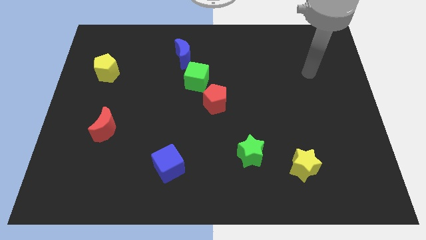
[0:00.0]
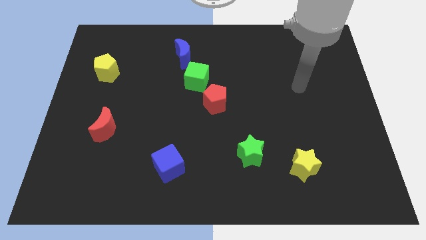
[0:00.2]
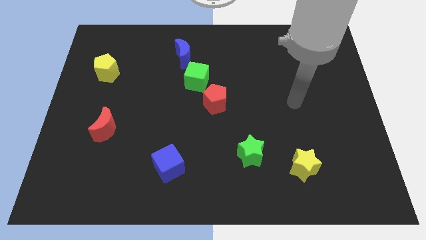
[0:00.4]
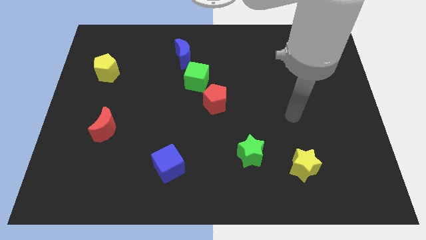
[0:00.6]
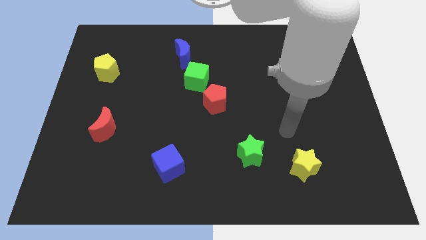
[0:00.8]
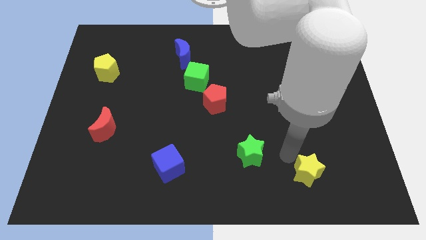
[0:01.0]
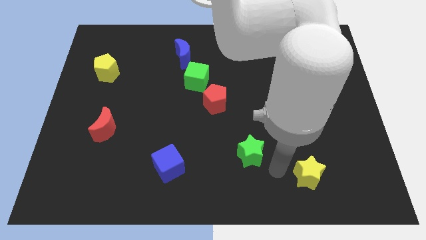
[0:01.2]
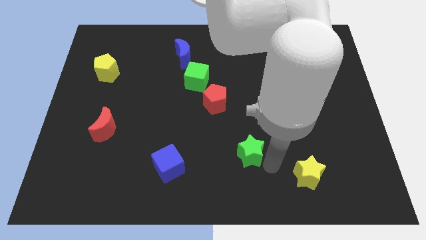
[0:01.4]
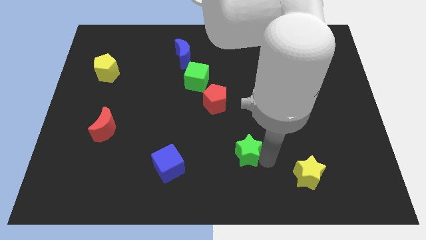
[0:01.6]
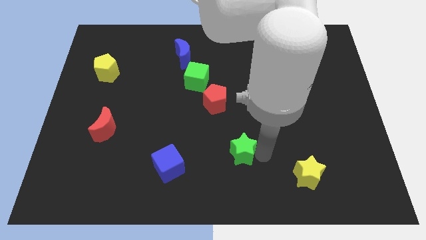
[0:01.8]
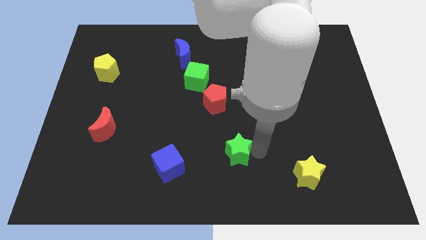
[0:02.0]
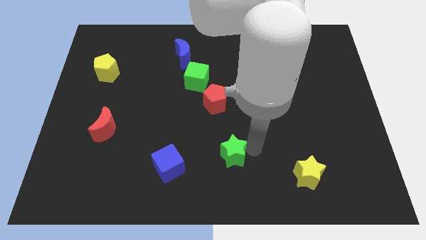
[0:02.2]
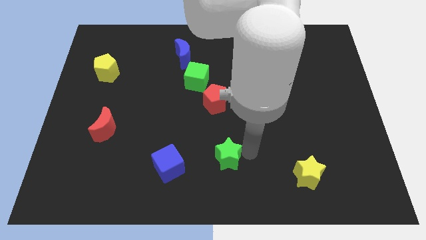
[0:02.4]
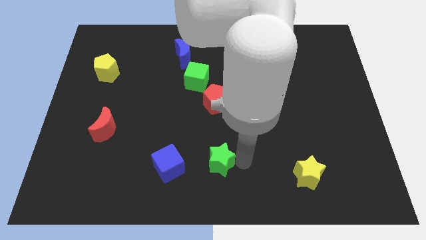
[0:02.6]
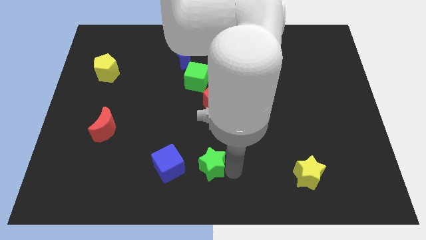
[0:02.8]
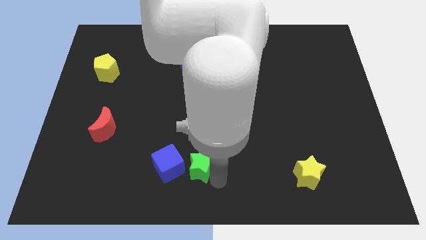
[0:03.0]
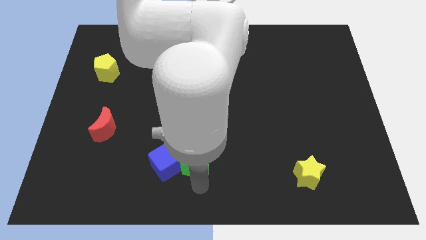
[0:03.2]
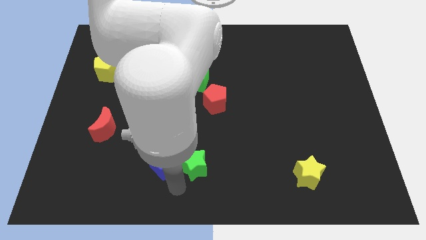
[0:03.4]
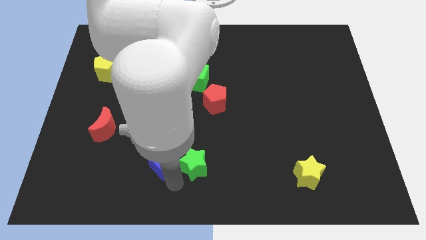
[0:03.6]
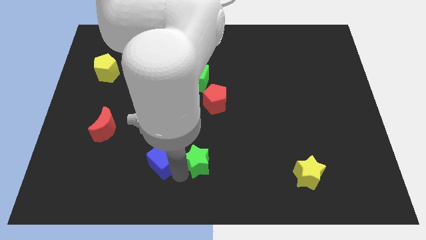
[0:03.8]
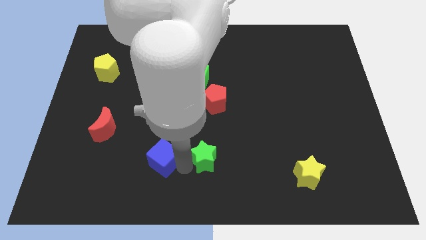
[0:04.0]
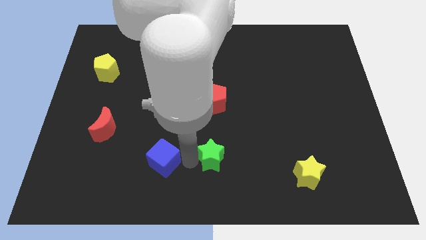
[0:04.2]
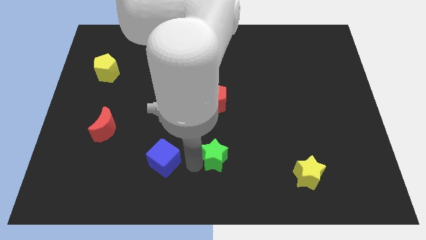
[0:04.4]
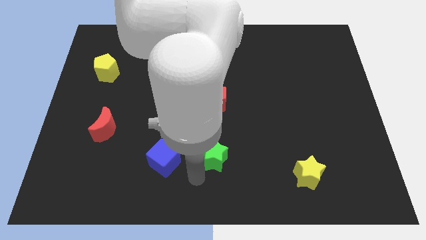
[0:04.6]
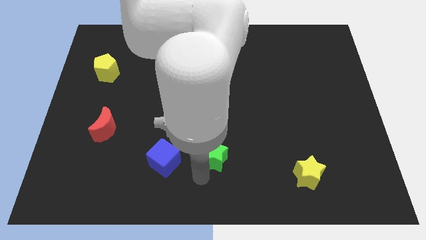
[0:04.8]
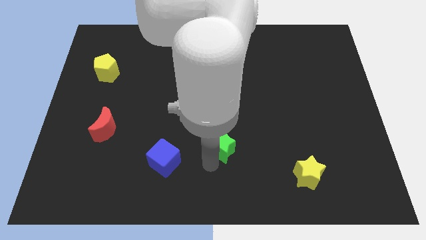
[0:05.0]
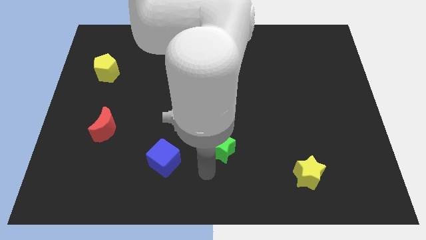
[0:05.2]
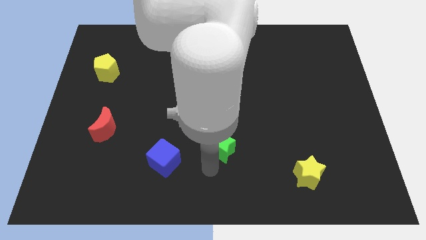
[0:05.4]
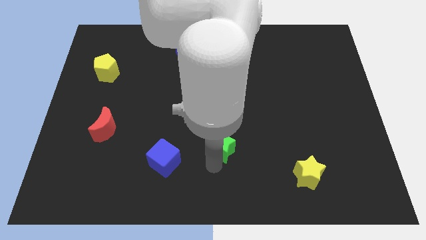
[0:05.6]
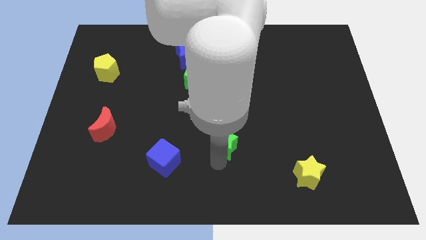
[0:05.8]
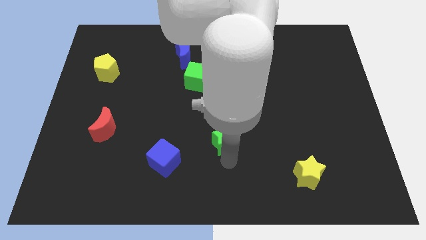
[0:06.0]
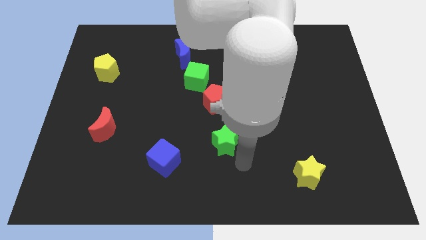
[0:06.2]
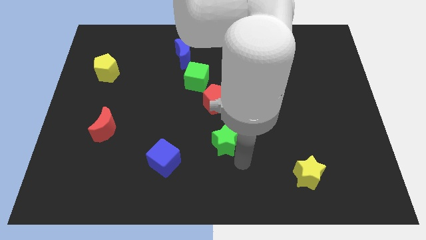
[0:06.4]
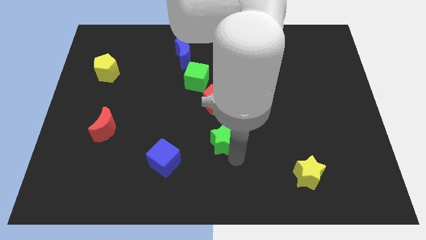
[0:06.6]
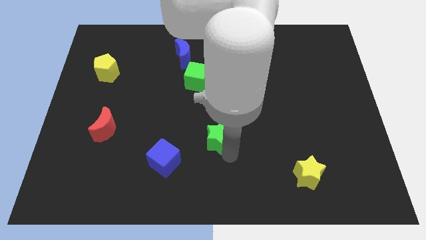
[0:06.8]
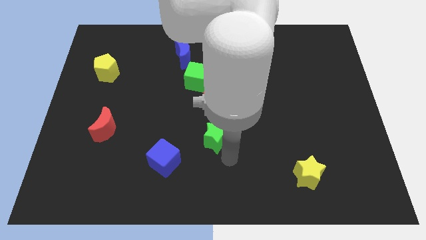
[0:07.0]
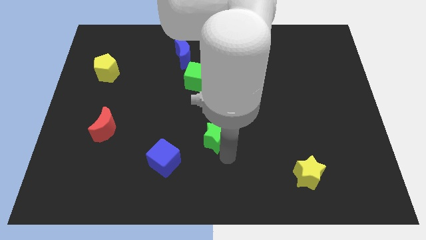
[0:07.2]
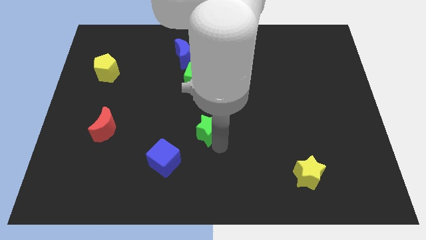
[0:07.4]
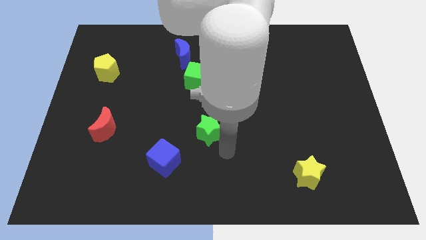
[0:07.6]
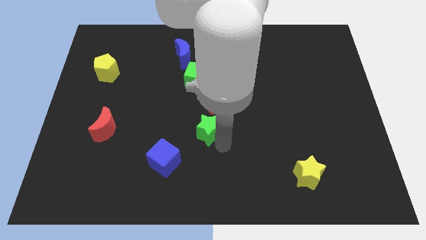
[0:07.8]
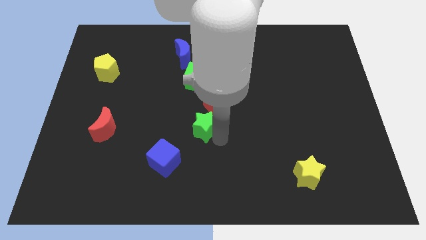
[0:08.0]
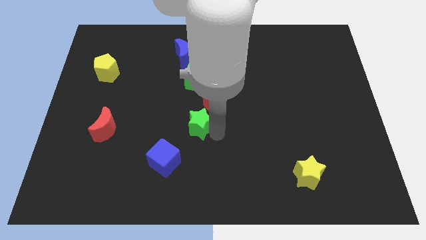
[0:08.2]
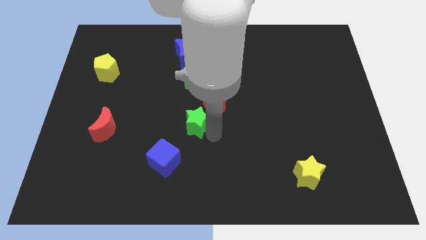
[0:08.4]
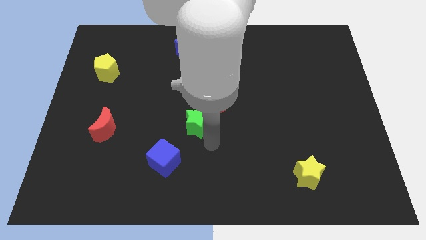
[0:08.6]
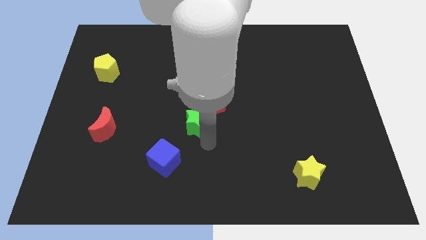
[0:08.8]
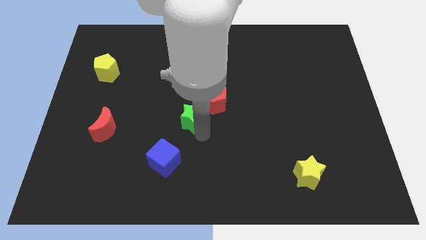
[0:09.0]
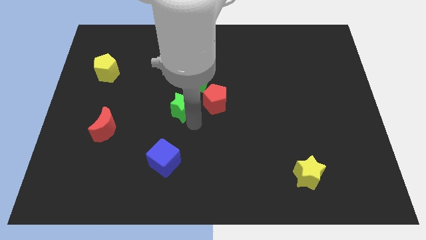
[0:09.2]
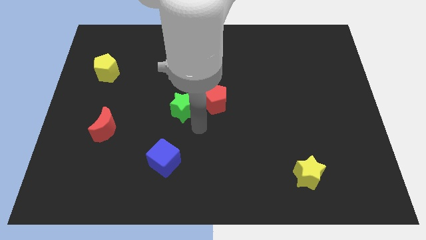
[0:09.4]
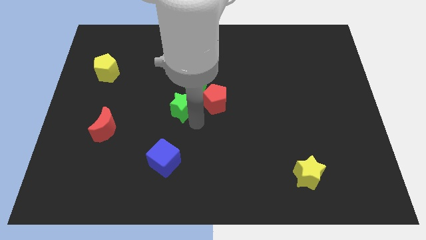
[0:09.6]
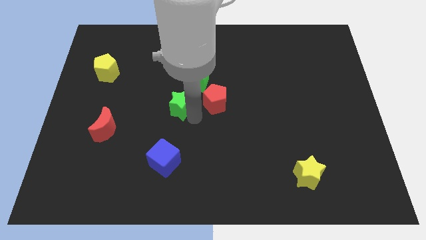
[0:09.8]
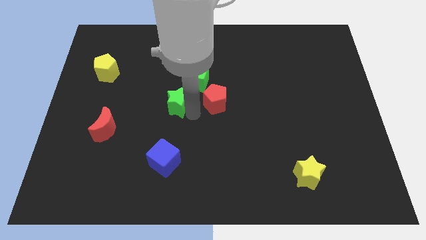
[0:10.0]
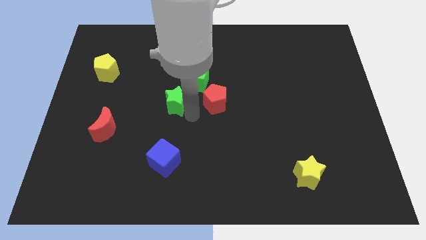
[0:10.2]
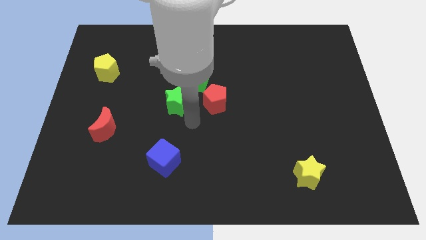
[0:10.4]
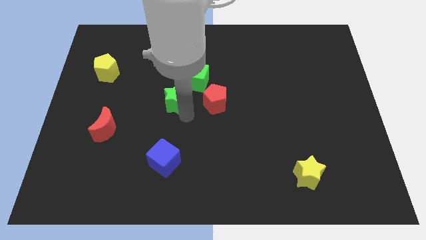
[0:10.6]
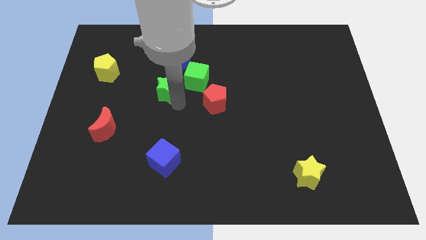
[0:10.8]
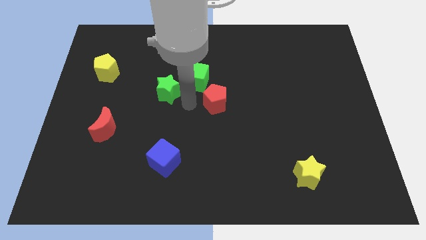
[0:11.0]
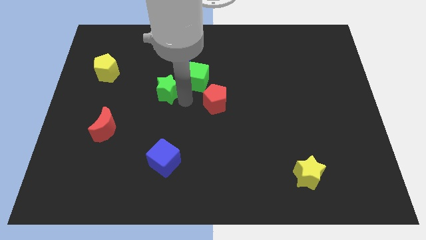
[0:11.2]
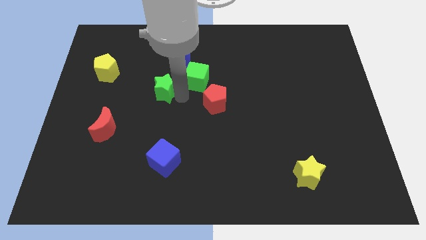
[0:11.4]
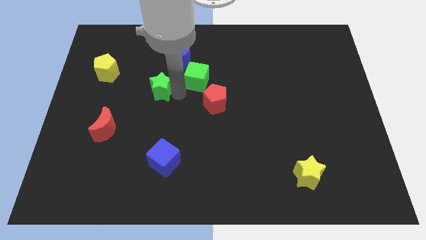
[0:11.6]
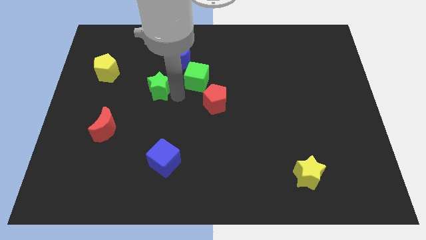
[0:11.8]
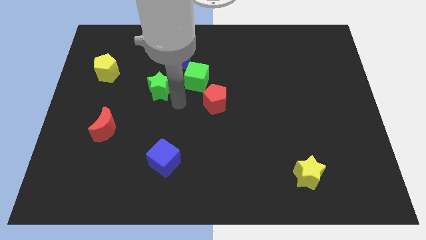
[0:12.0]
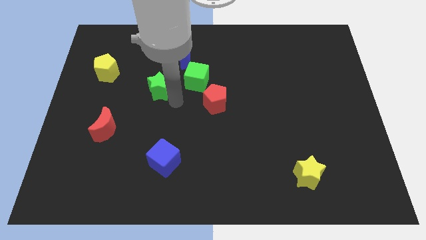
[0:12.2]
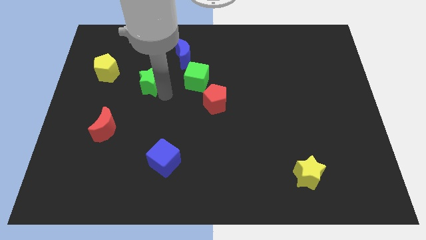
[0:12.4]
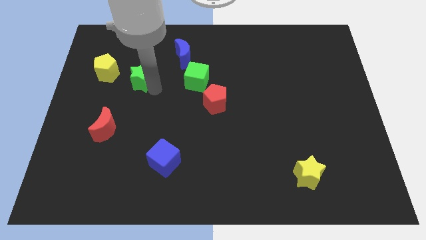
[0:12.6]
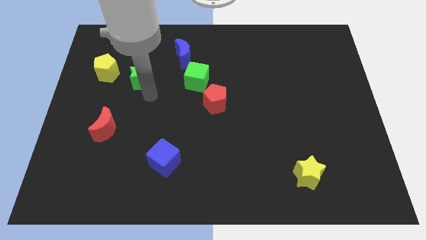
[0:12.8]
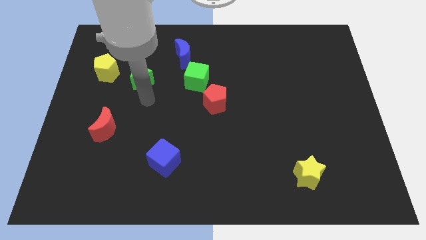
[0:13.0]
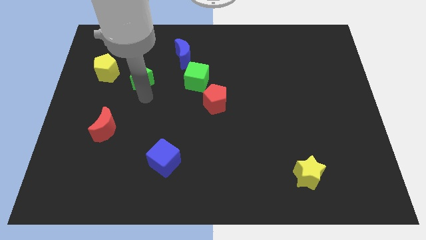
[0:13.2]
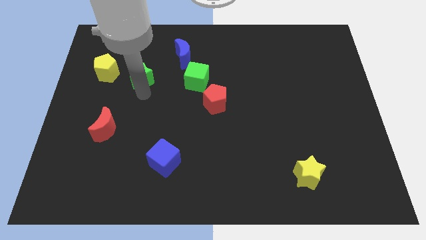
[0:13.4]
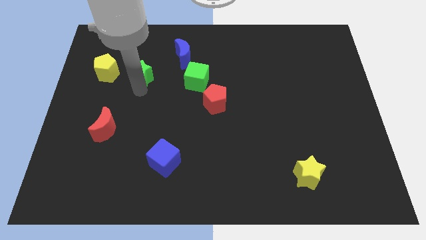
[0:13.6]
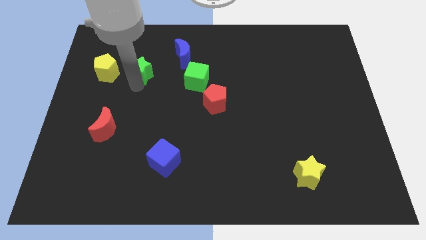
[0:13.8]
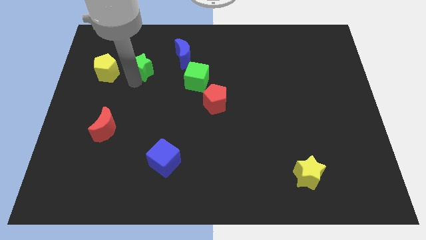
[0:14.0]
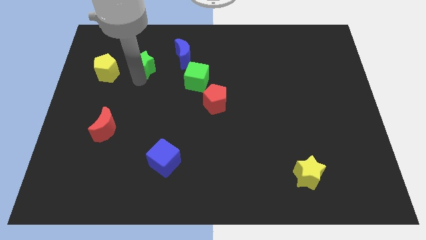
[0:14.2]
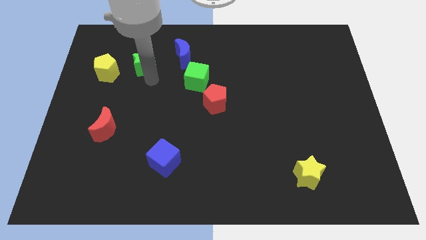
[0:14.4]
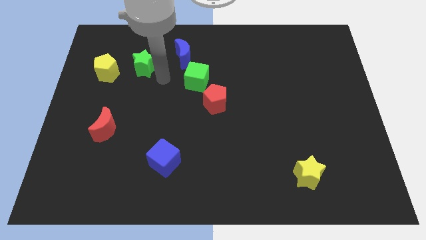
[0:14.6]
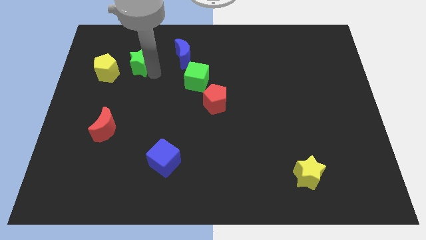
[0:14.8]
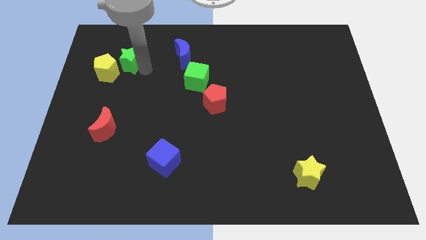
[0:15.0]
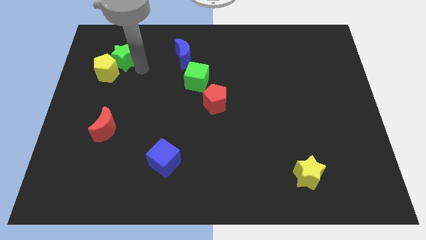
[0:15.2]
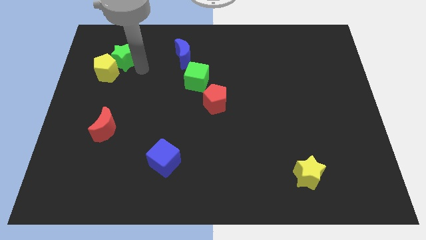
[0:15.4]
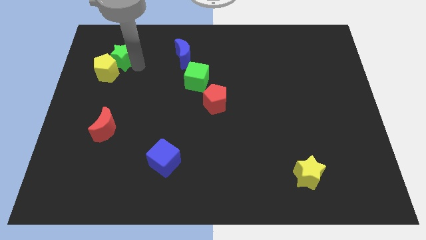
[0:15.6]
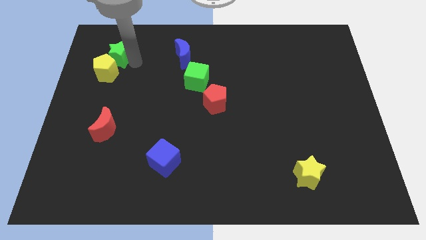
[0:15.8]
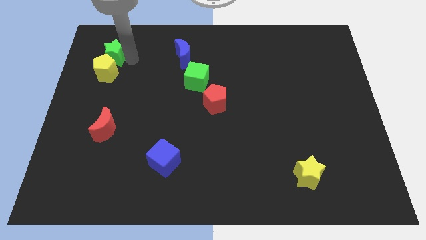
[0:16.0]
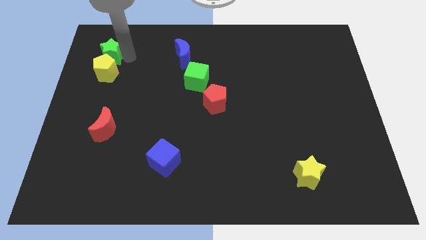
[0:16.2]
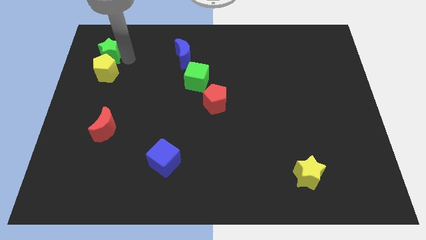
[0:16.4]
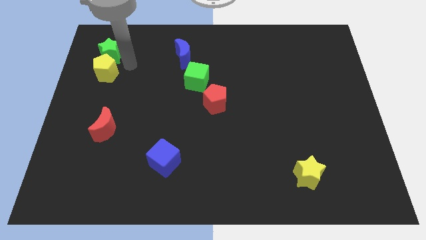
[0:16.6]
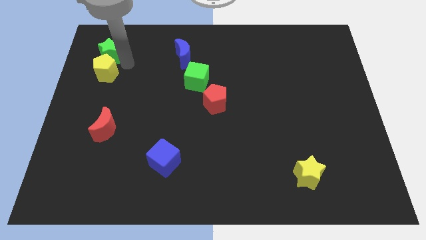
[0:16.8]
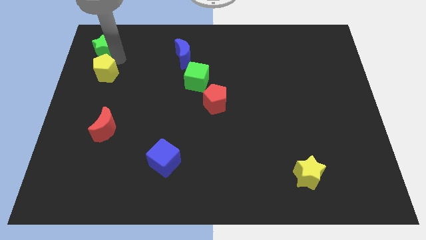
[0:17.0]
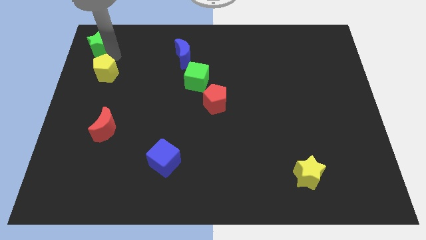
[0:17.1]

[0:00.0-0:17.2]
slide the green star to the top left of the board
